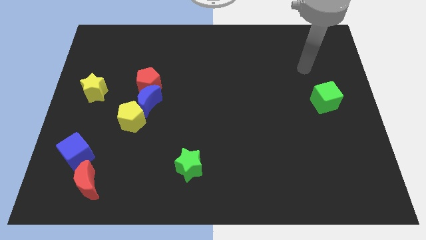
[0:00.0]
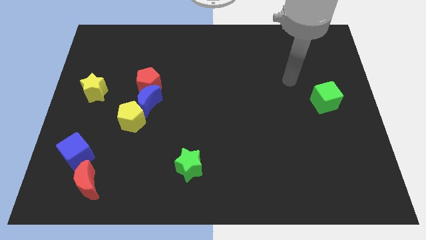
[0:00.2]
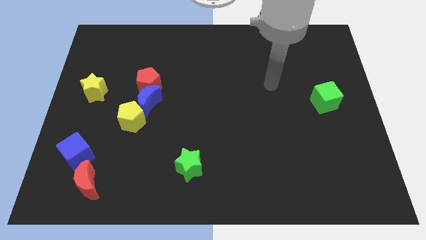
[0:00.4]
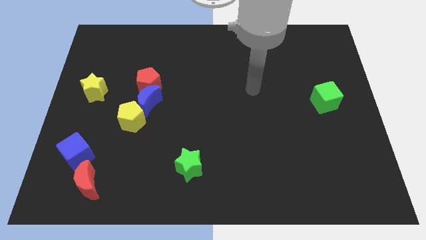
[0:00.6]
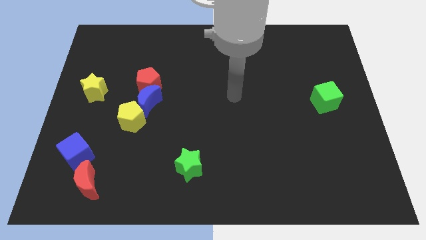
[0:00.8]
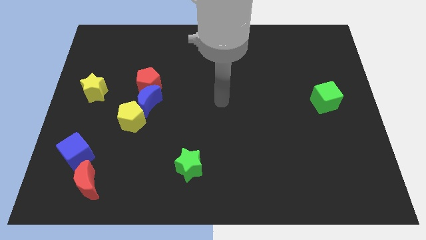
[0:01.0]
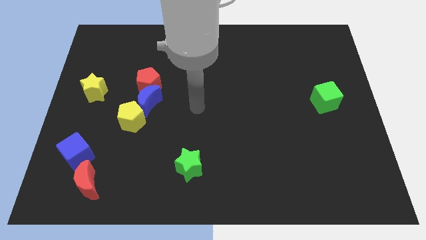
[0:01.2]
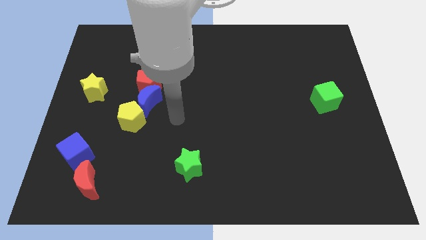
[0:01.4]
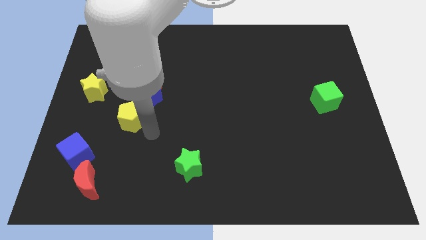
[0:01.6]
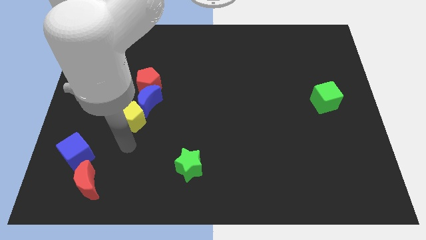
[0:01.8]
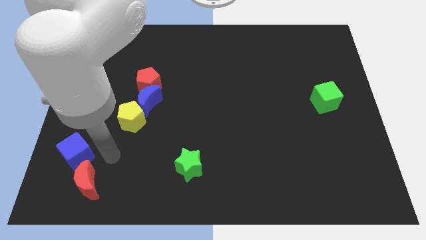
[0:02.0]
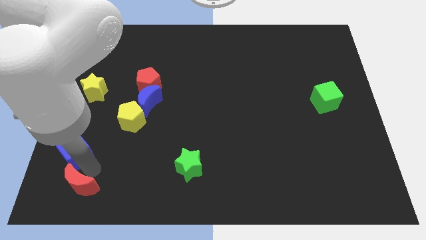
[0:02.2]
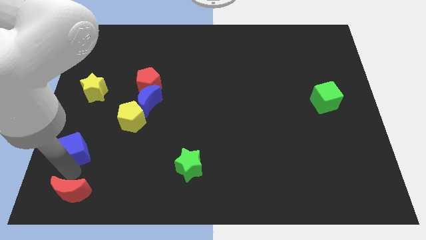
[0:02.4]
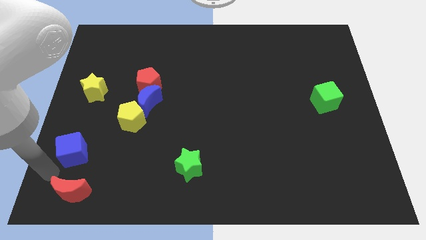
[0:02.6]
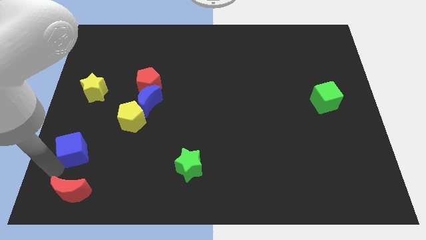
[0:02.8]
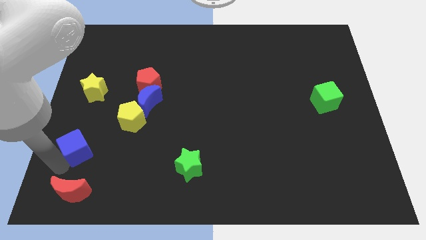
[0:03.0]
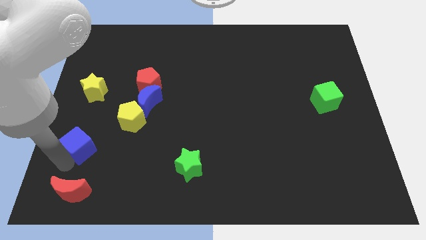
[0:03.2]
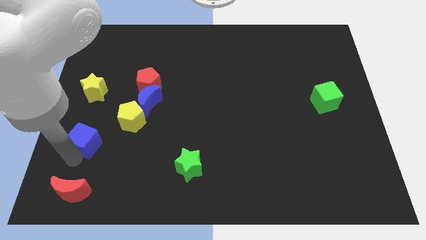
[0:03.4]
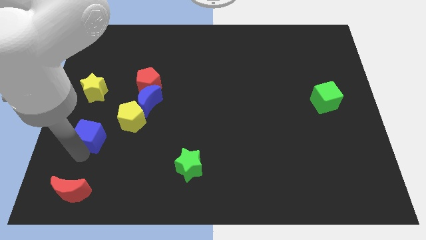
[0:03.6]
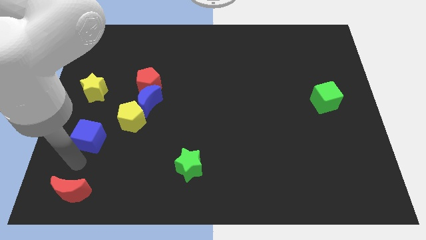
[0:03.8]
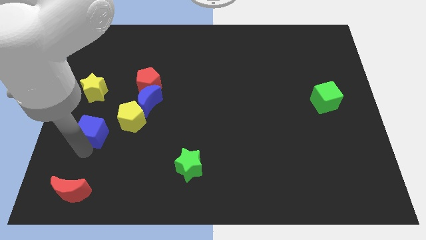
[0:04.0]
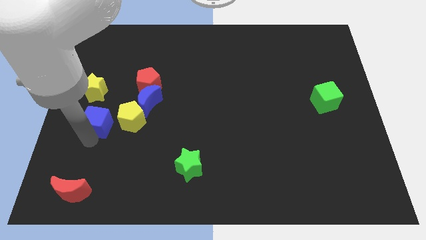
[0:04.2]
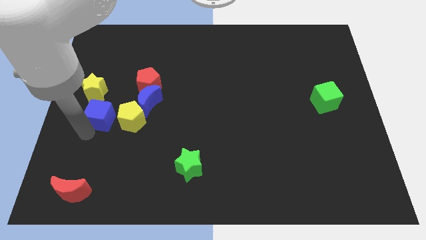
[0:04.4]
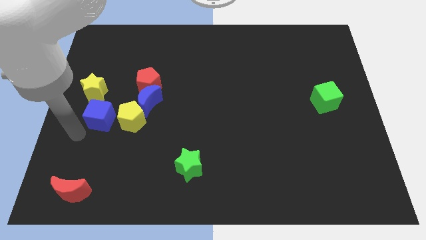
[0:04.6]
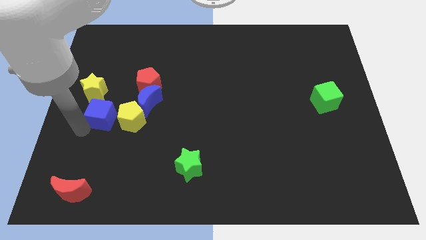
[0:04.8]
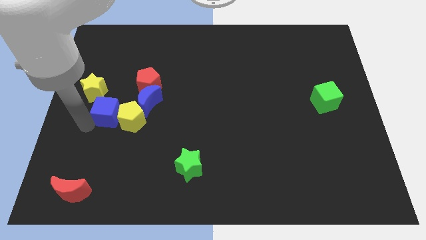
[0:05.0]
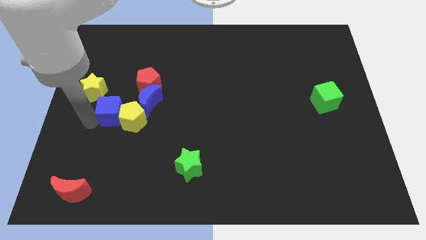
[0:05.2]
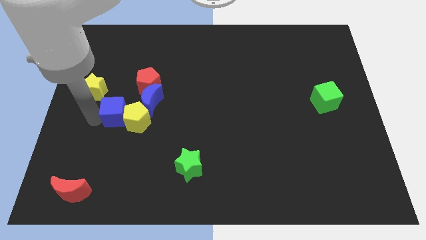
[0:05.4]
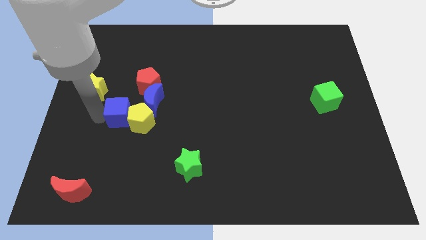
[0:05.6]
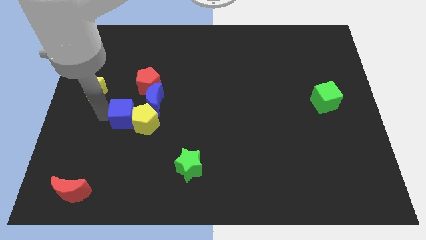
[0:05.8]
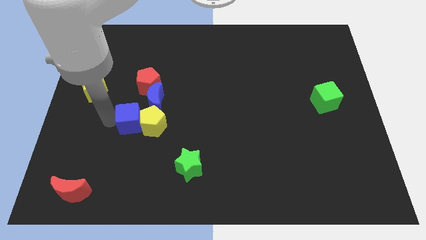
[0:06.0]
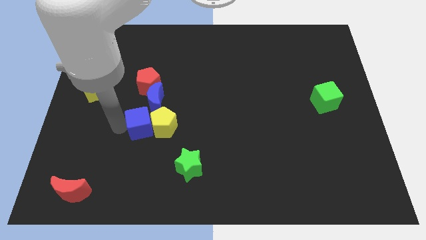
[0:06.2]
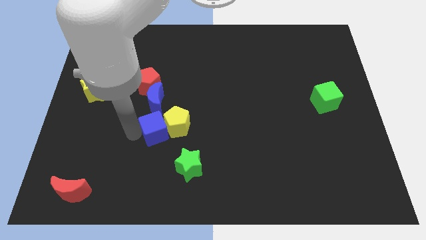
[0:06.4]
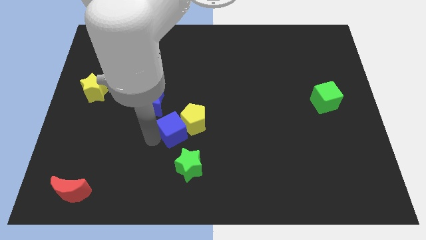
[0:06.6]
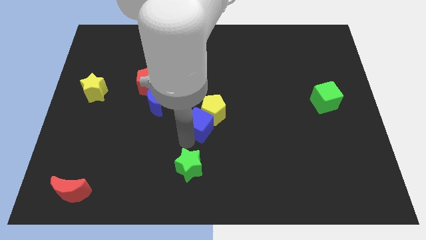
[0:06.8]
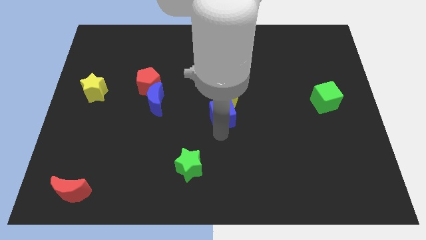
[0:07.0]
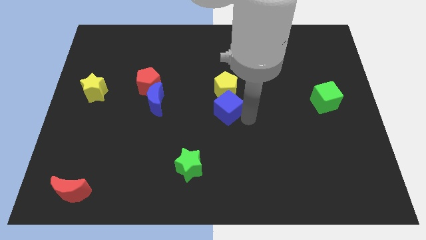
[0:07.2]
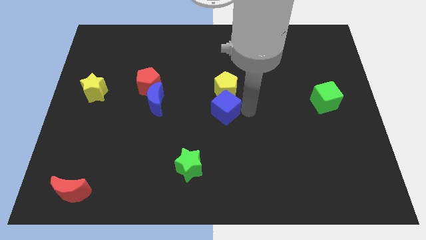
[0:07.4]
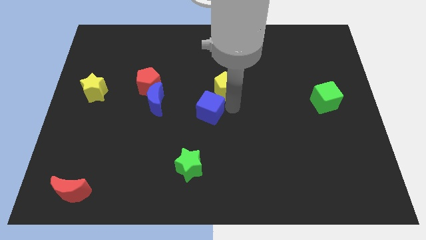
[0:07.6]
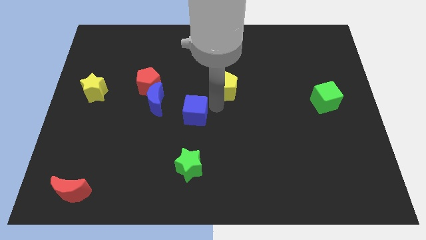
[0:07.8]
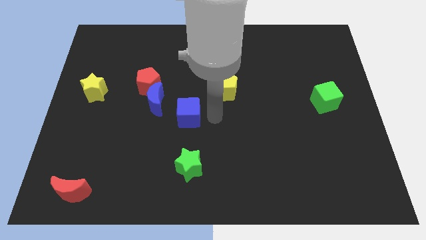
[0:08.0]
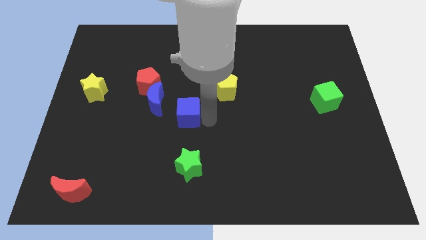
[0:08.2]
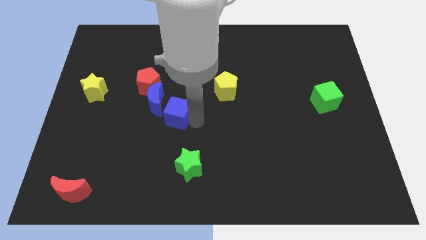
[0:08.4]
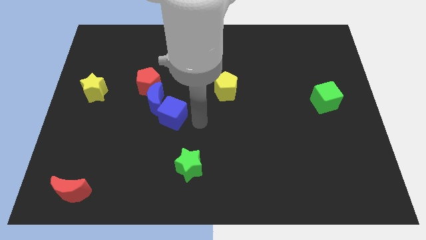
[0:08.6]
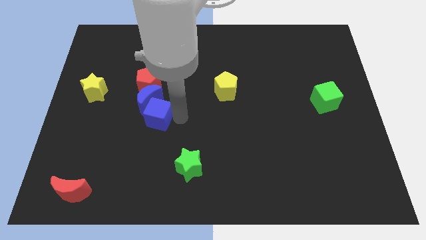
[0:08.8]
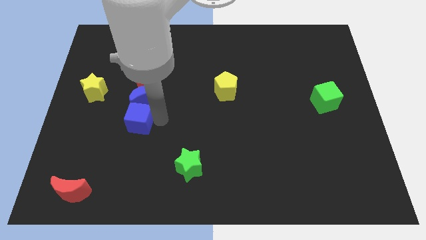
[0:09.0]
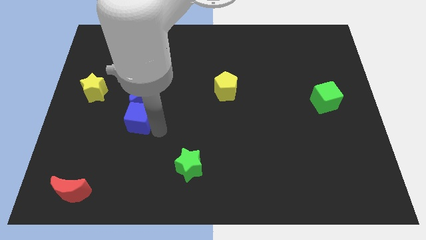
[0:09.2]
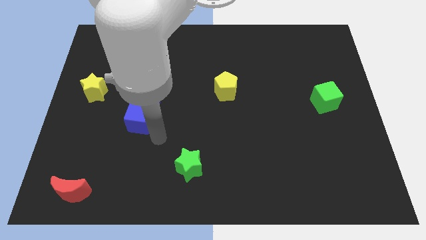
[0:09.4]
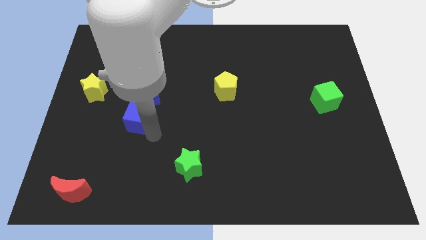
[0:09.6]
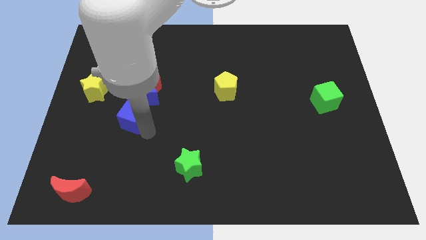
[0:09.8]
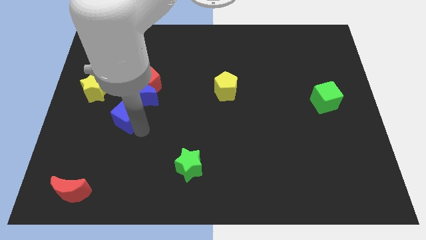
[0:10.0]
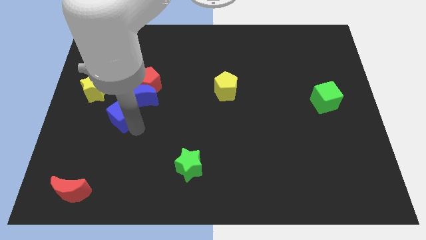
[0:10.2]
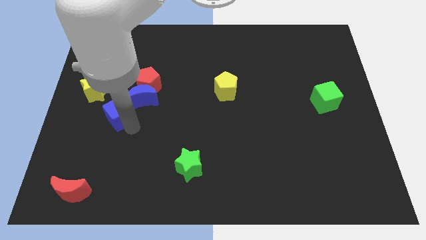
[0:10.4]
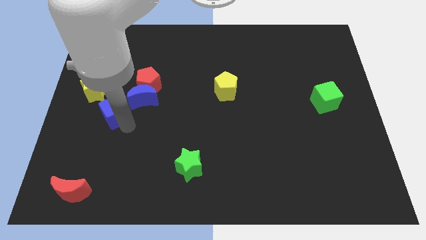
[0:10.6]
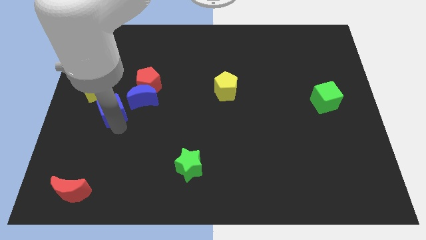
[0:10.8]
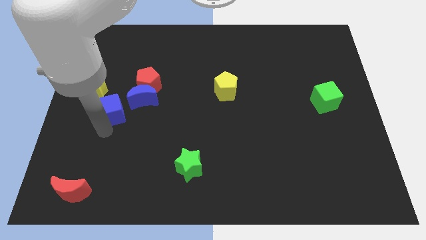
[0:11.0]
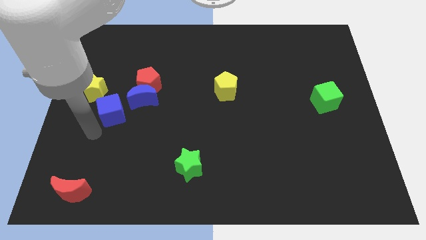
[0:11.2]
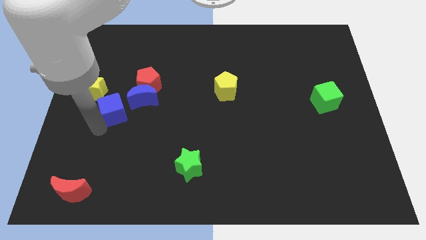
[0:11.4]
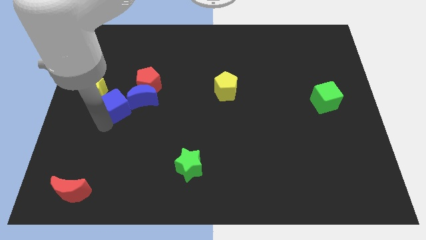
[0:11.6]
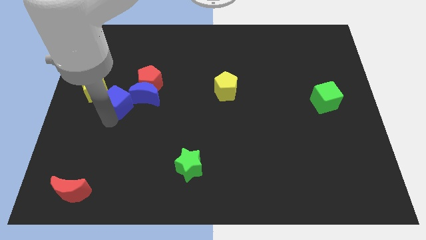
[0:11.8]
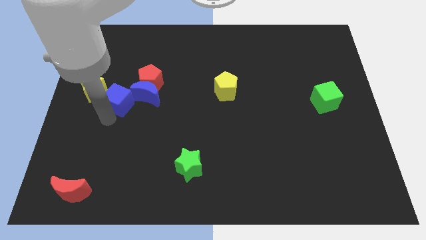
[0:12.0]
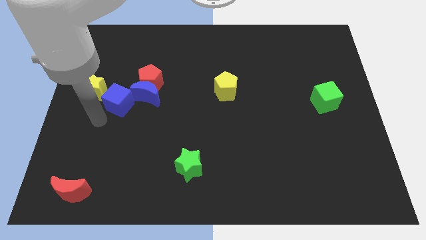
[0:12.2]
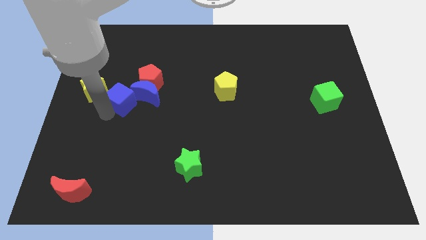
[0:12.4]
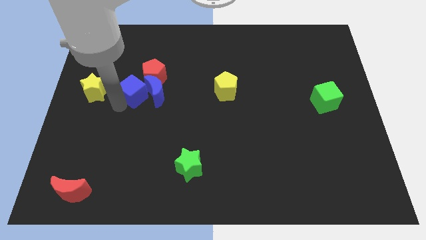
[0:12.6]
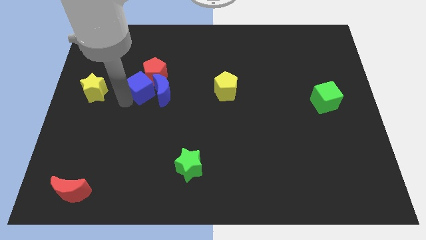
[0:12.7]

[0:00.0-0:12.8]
slide the blue cube to the red pentagon

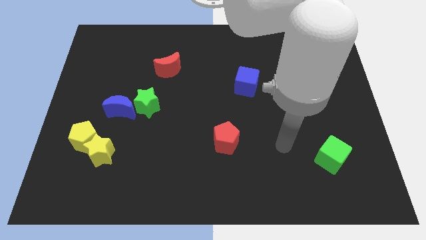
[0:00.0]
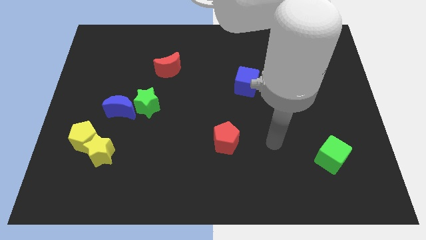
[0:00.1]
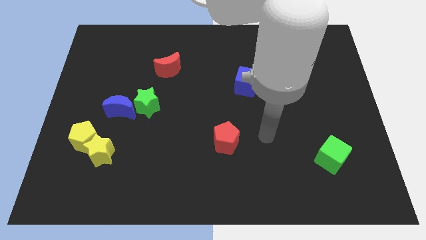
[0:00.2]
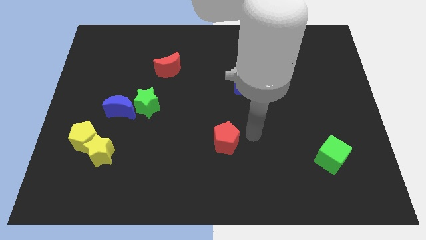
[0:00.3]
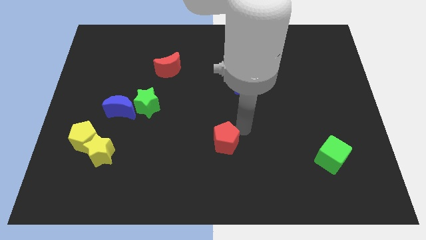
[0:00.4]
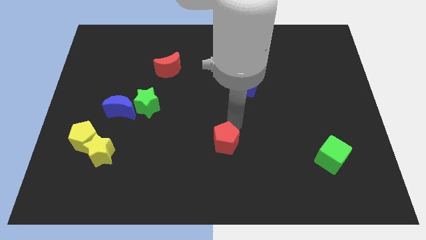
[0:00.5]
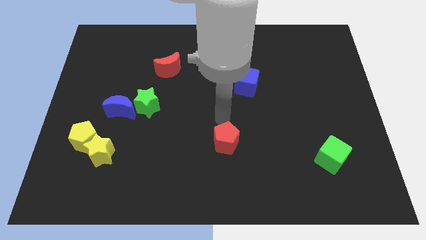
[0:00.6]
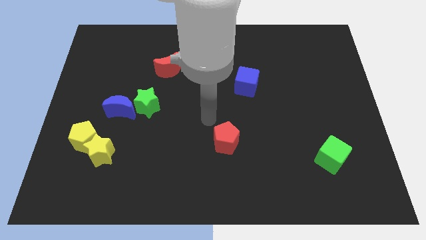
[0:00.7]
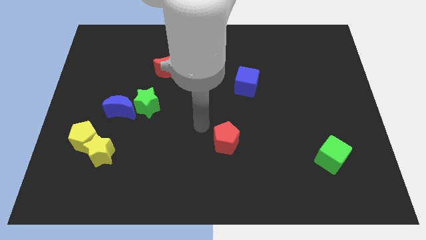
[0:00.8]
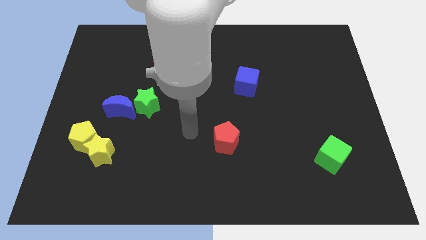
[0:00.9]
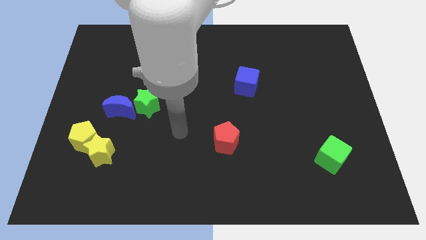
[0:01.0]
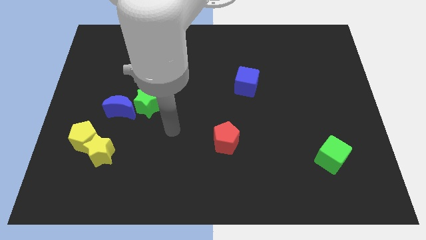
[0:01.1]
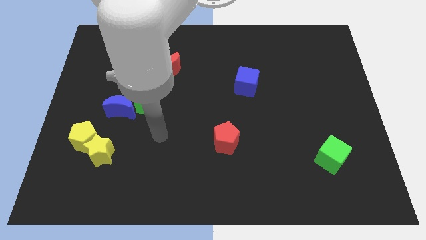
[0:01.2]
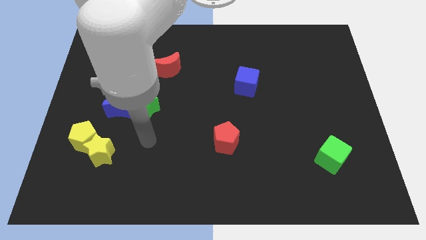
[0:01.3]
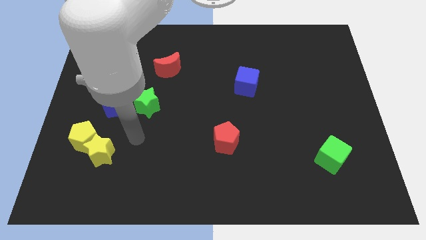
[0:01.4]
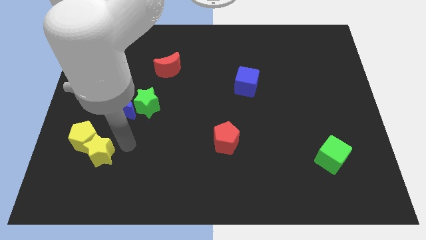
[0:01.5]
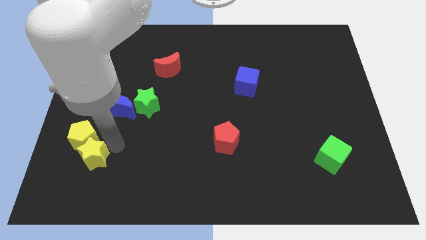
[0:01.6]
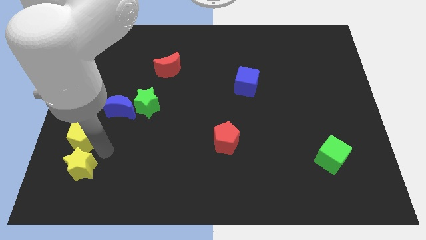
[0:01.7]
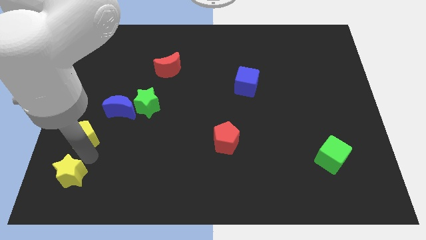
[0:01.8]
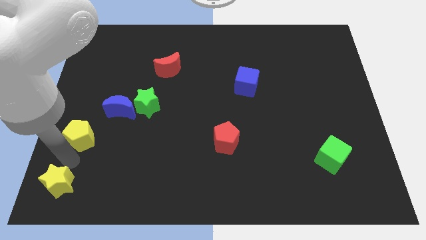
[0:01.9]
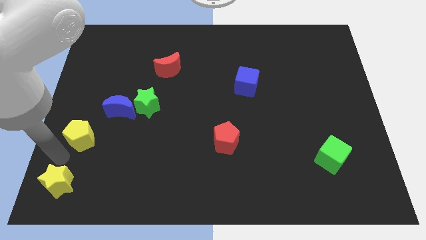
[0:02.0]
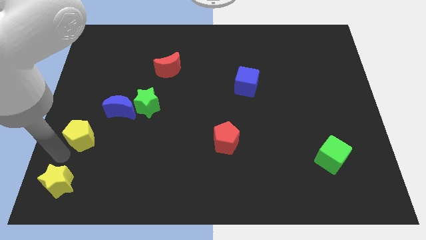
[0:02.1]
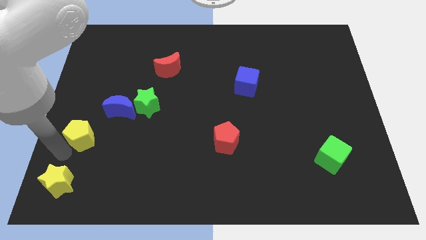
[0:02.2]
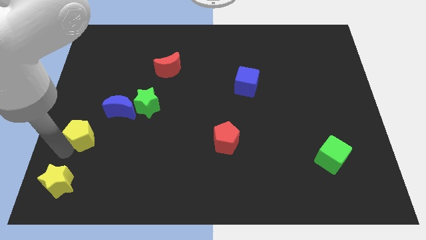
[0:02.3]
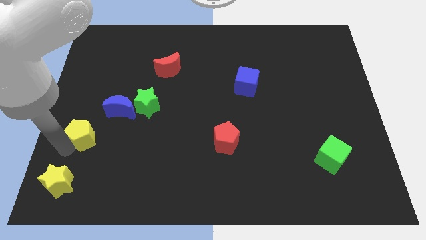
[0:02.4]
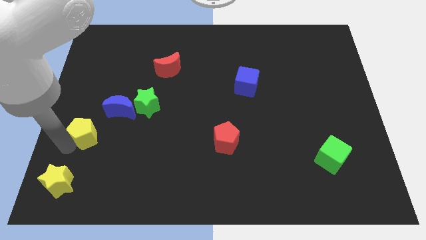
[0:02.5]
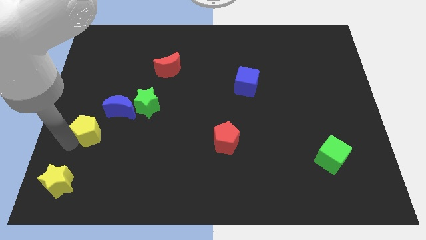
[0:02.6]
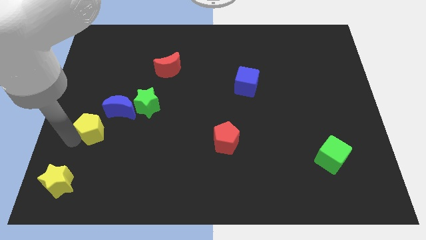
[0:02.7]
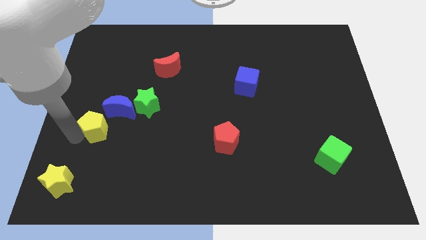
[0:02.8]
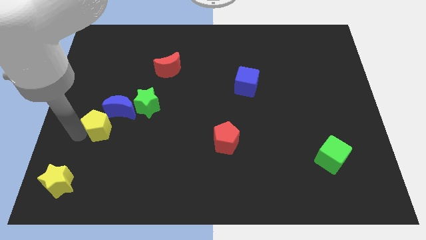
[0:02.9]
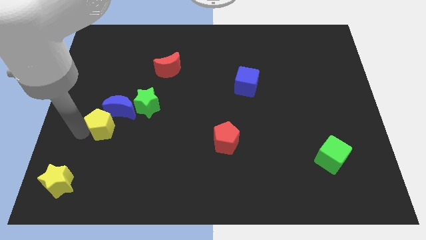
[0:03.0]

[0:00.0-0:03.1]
put the yellow pentagon close to the blue moon
